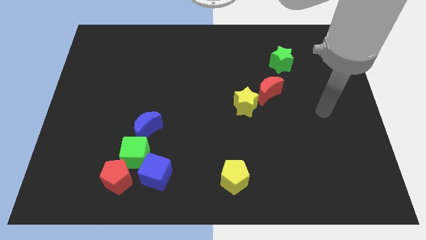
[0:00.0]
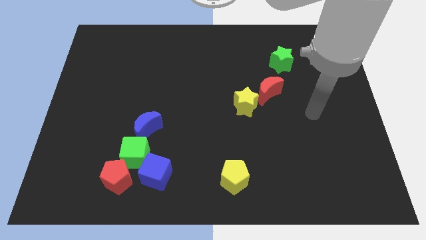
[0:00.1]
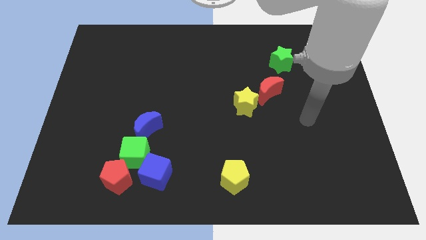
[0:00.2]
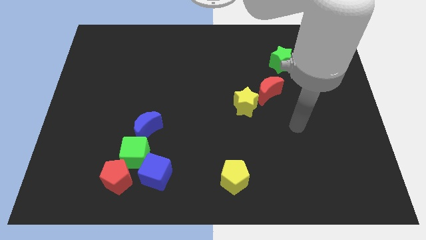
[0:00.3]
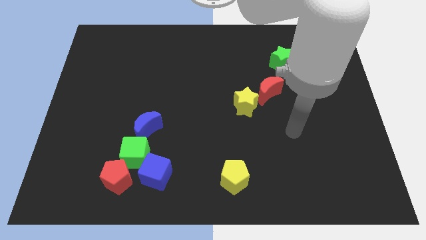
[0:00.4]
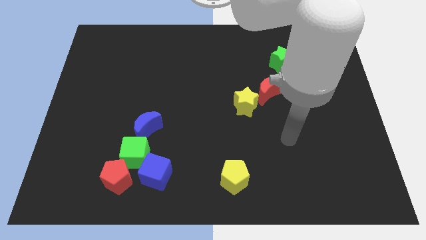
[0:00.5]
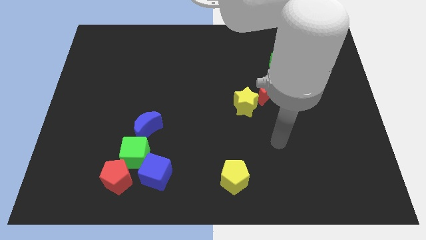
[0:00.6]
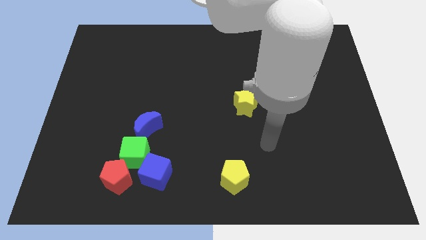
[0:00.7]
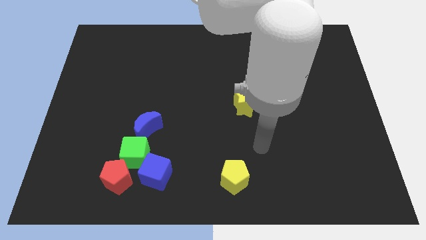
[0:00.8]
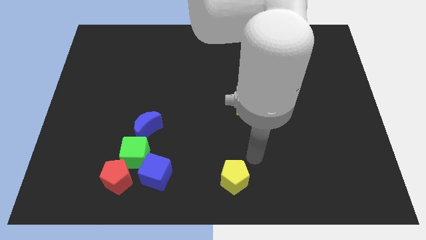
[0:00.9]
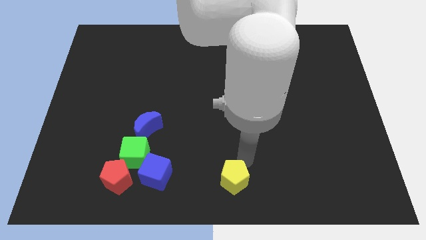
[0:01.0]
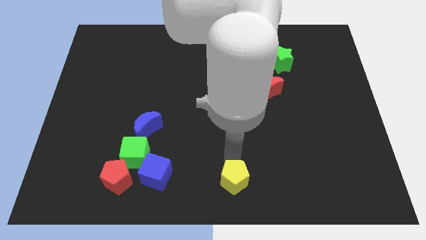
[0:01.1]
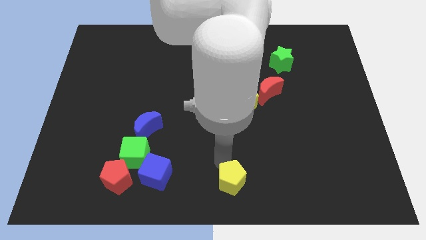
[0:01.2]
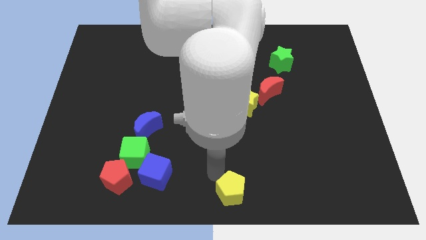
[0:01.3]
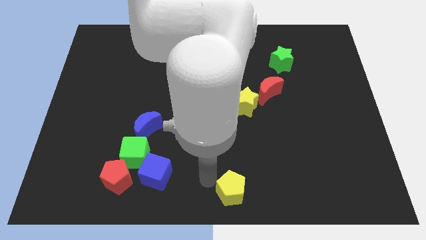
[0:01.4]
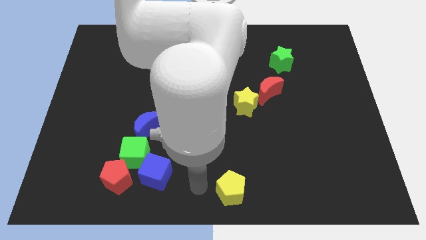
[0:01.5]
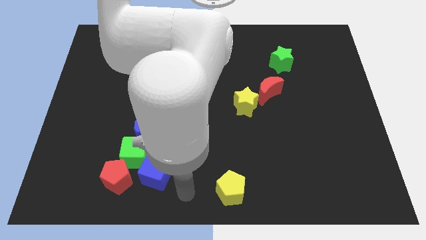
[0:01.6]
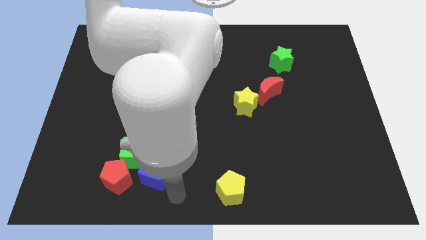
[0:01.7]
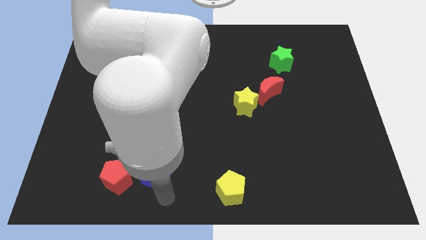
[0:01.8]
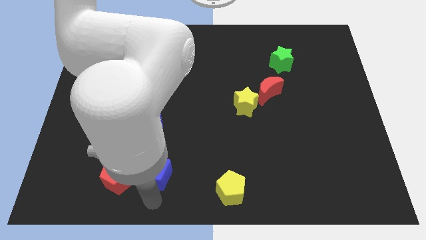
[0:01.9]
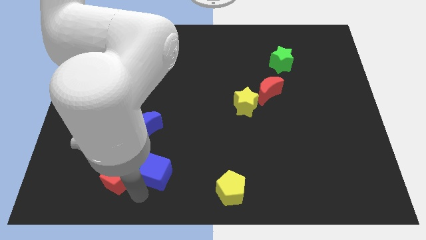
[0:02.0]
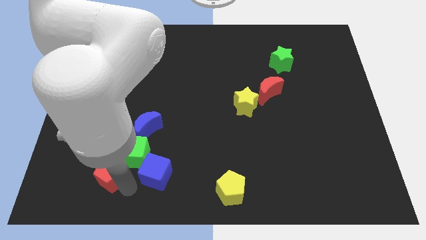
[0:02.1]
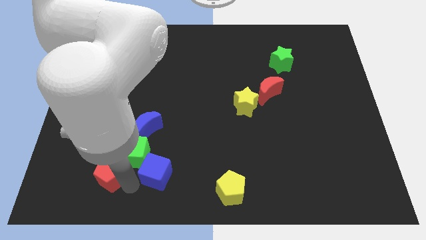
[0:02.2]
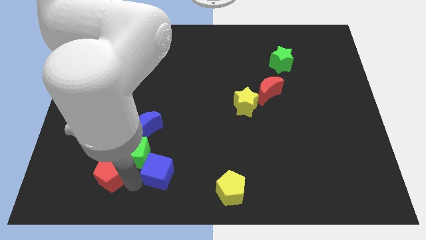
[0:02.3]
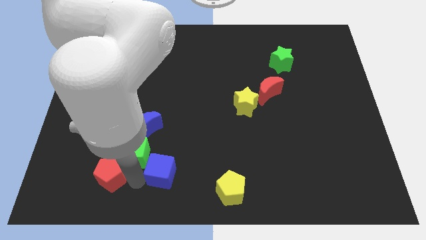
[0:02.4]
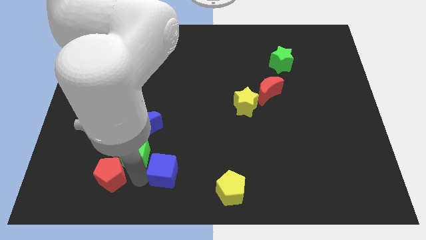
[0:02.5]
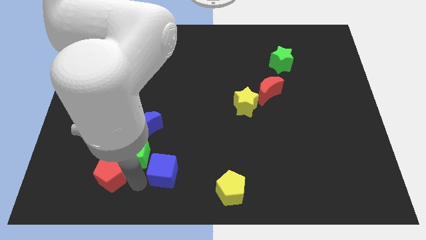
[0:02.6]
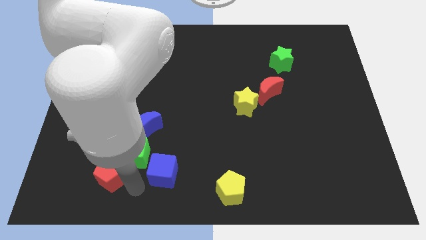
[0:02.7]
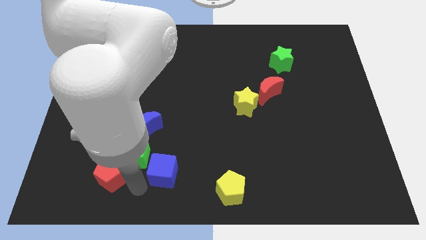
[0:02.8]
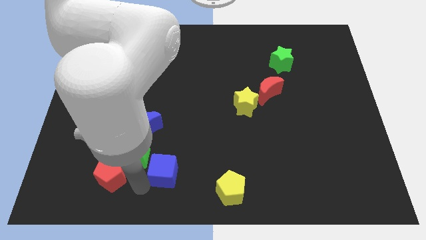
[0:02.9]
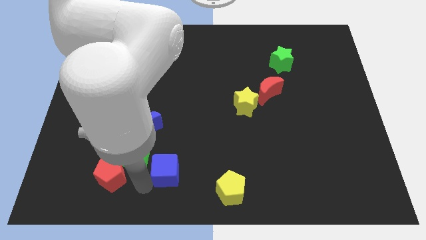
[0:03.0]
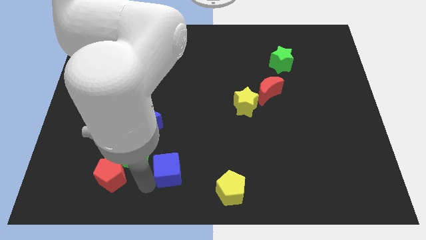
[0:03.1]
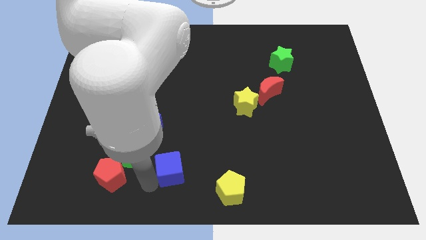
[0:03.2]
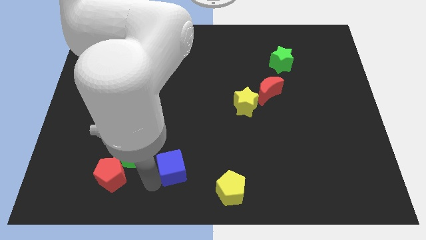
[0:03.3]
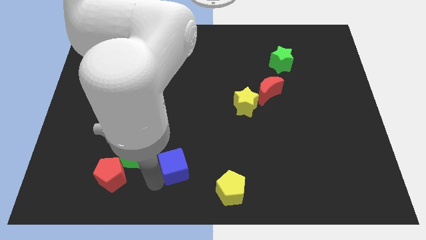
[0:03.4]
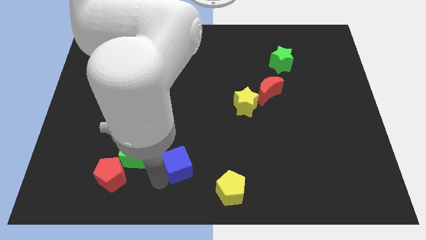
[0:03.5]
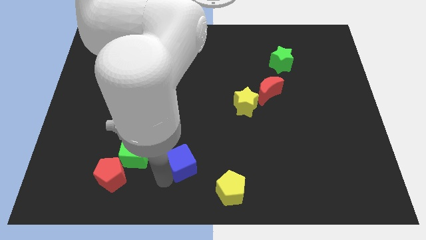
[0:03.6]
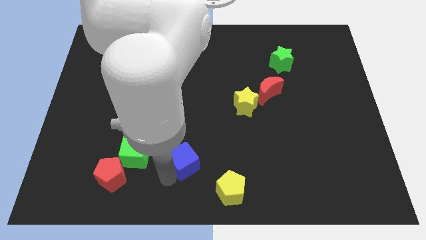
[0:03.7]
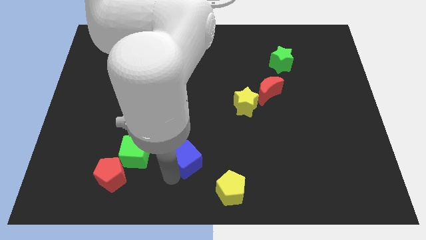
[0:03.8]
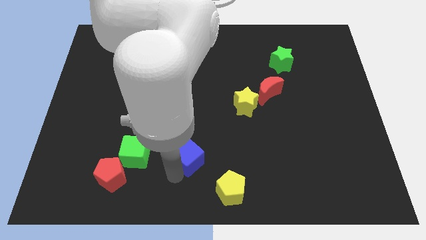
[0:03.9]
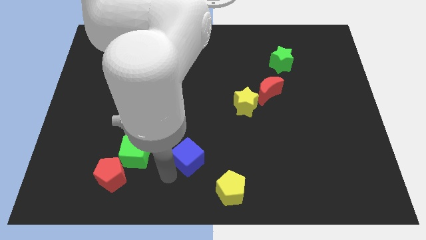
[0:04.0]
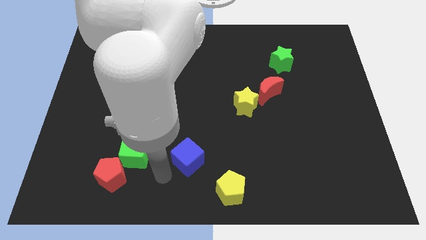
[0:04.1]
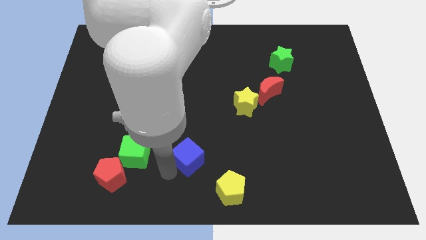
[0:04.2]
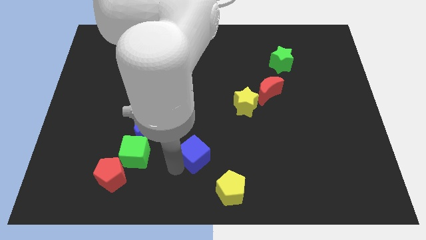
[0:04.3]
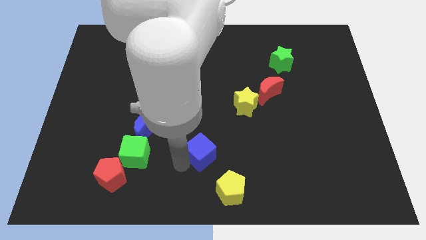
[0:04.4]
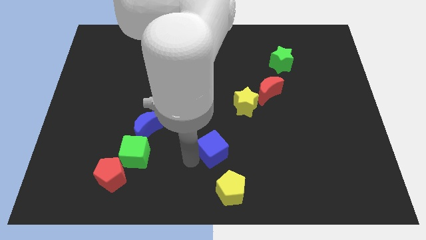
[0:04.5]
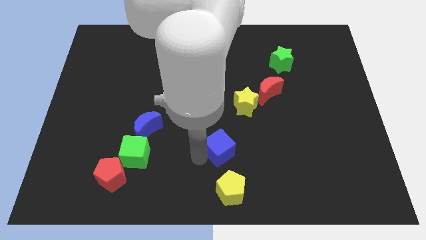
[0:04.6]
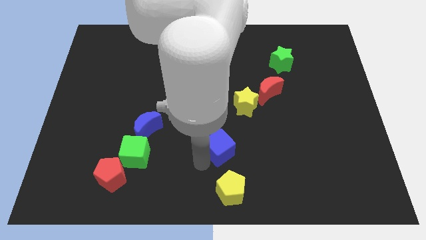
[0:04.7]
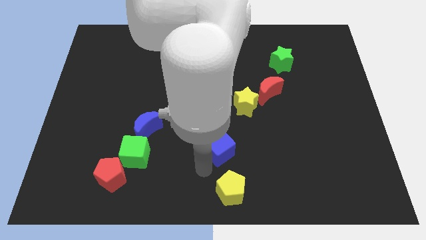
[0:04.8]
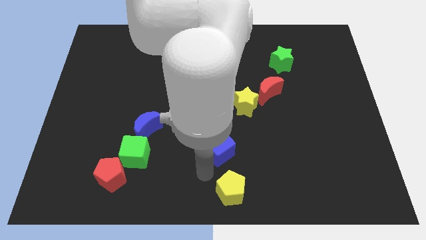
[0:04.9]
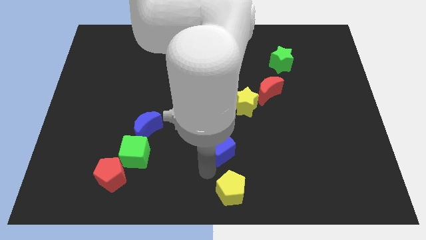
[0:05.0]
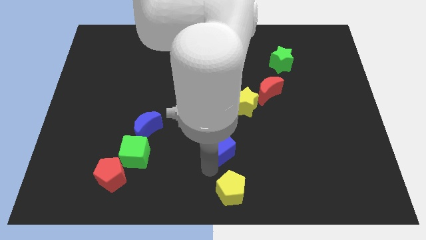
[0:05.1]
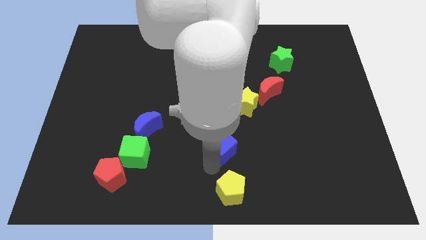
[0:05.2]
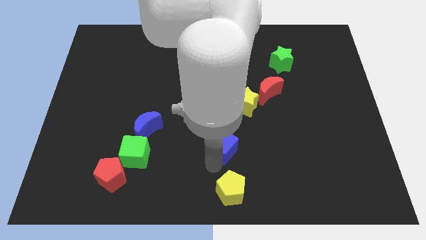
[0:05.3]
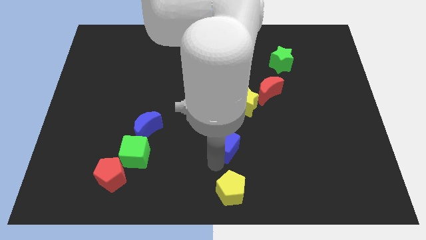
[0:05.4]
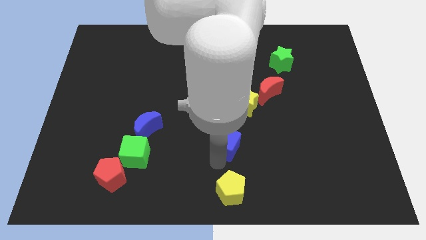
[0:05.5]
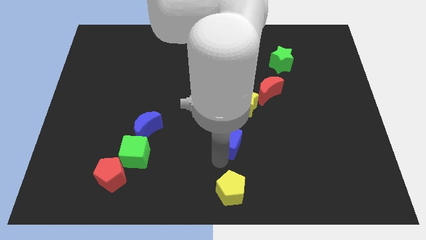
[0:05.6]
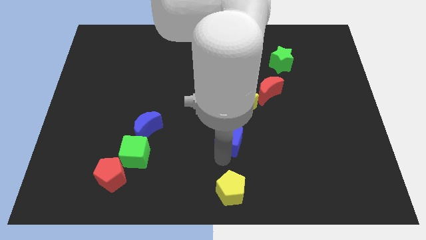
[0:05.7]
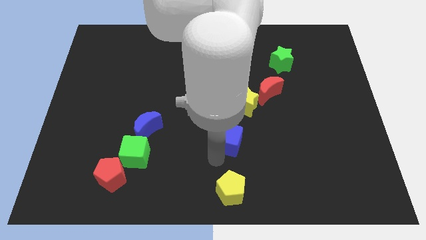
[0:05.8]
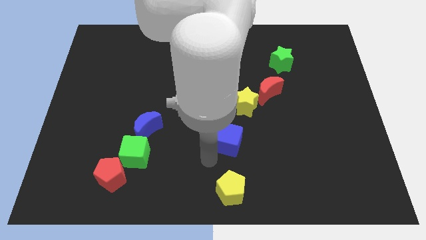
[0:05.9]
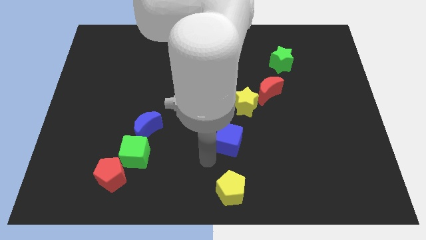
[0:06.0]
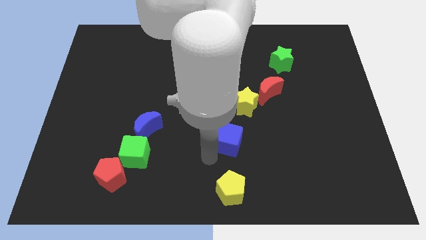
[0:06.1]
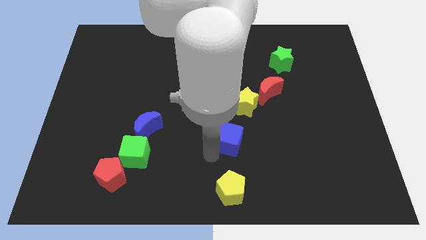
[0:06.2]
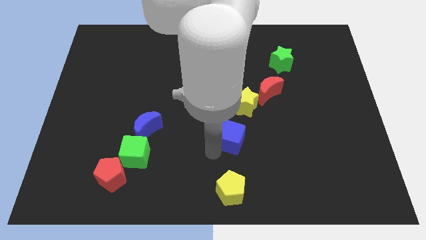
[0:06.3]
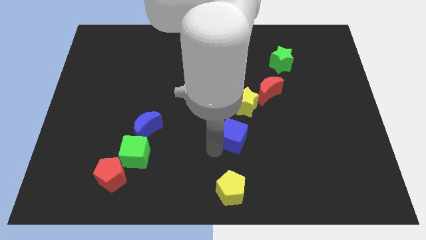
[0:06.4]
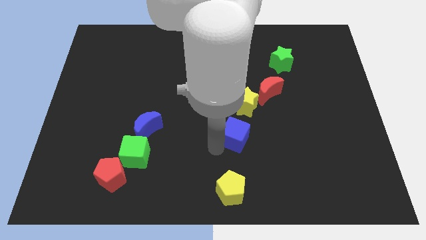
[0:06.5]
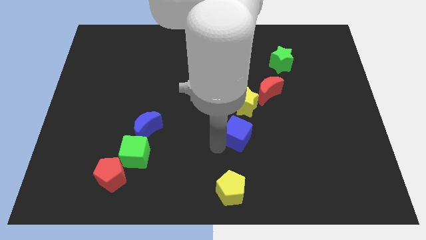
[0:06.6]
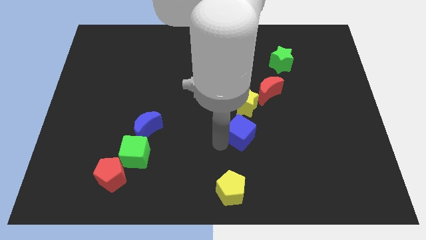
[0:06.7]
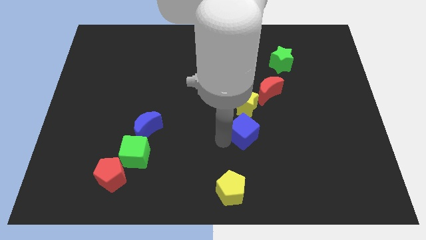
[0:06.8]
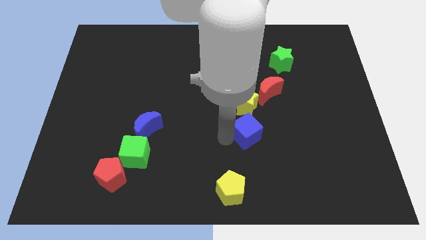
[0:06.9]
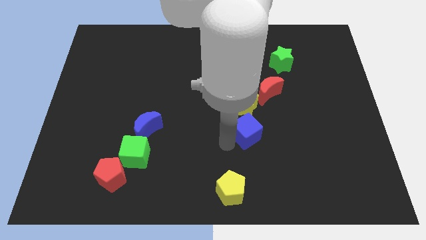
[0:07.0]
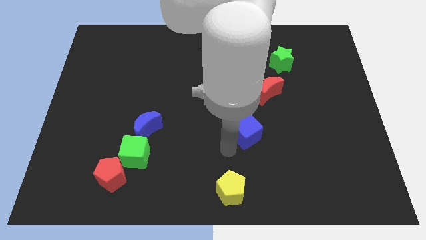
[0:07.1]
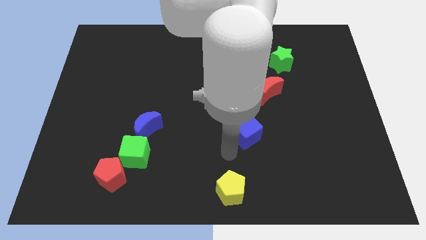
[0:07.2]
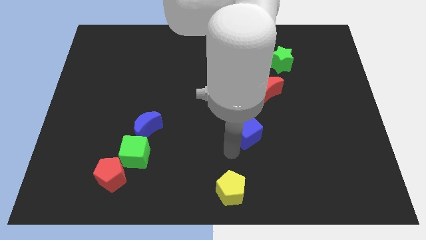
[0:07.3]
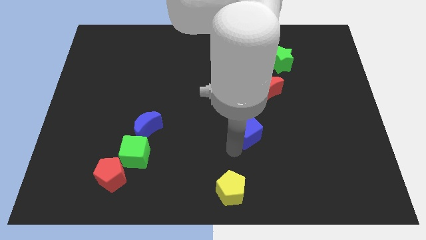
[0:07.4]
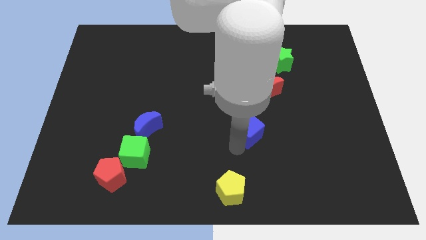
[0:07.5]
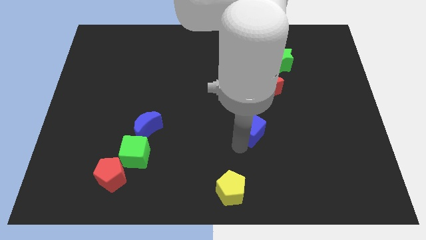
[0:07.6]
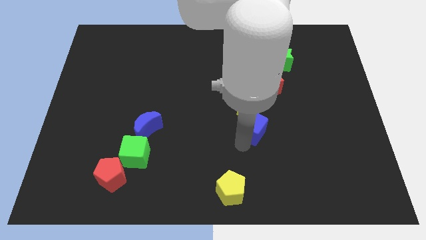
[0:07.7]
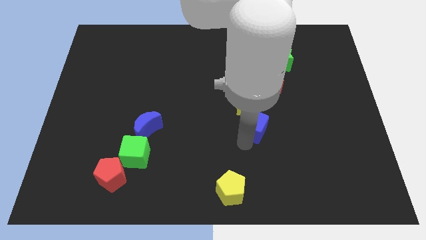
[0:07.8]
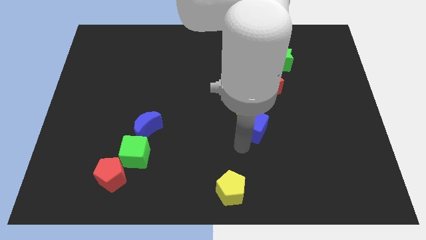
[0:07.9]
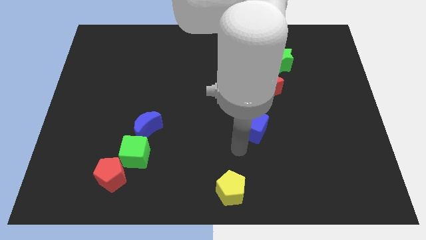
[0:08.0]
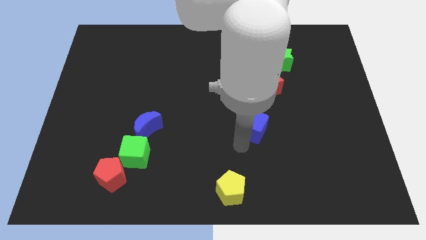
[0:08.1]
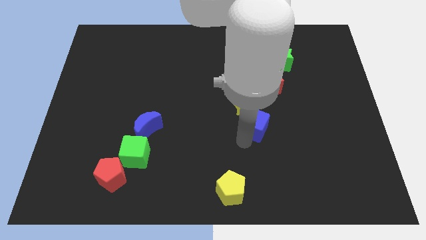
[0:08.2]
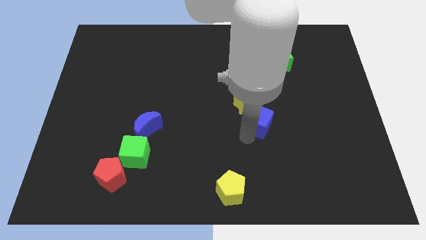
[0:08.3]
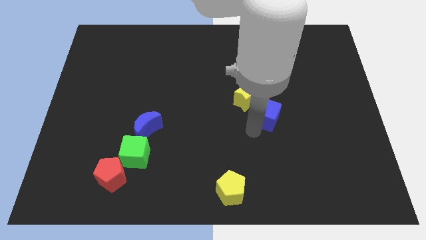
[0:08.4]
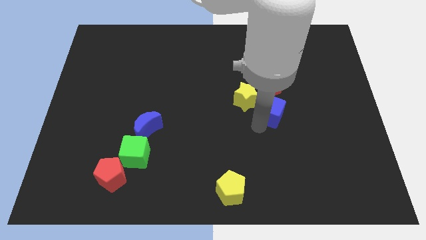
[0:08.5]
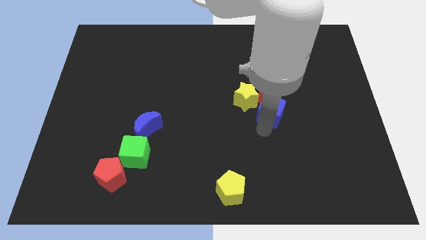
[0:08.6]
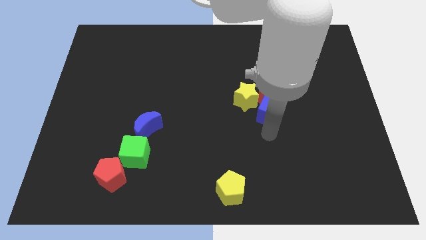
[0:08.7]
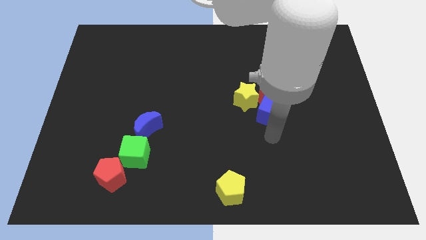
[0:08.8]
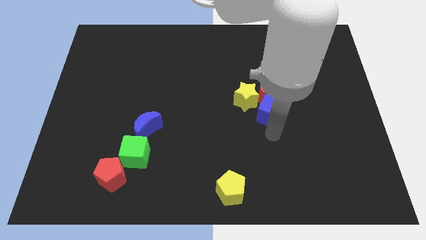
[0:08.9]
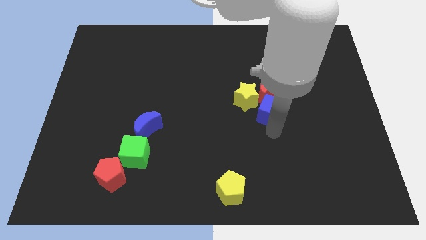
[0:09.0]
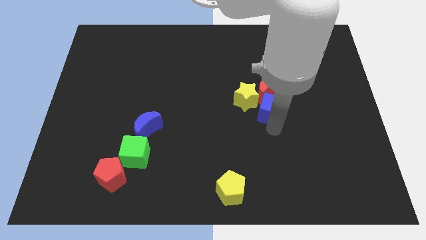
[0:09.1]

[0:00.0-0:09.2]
slide the blue cube to the red moon
